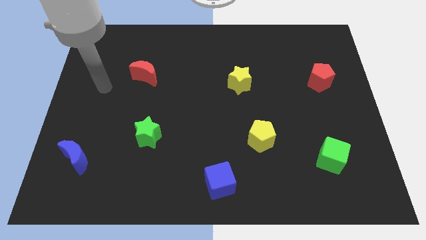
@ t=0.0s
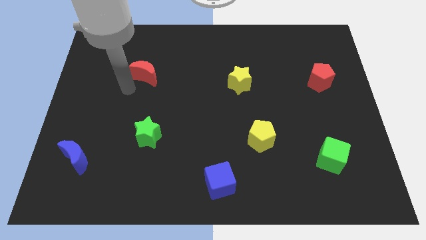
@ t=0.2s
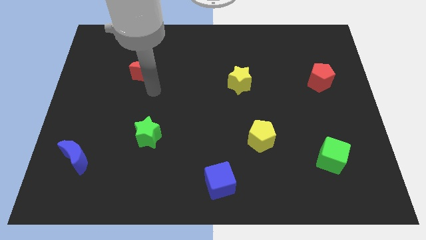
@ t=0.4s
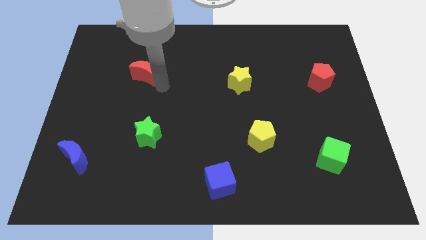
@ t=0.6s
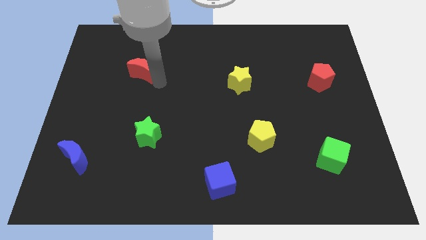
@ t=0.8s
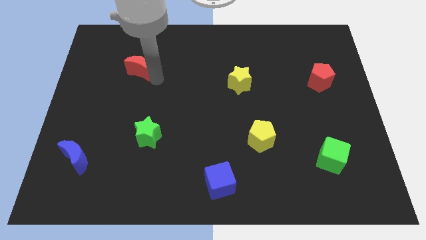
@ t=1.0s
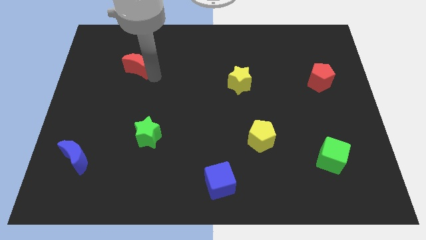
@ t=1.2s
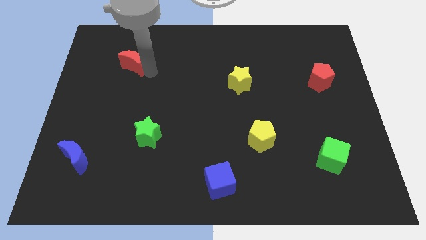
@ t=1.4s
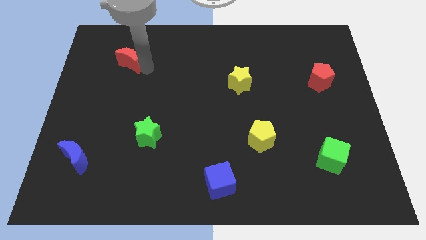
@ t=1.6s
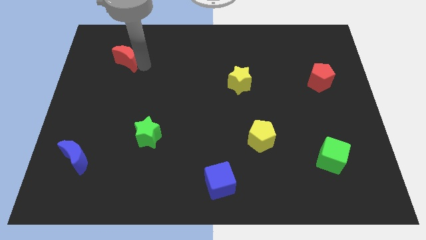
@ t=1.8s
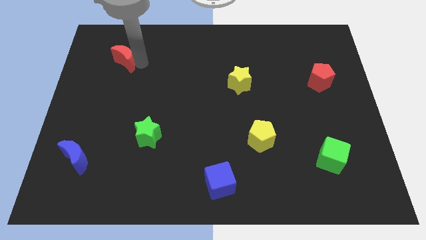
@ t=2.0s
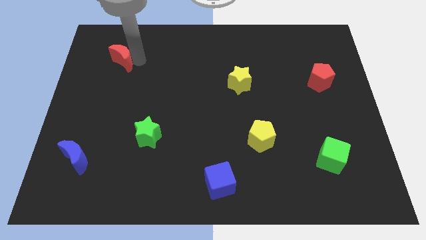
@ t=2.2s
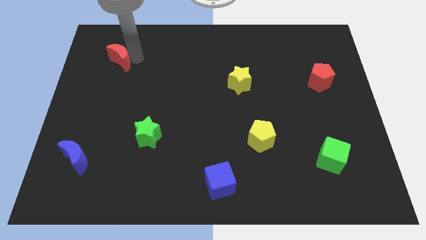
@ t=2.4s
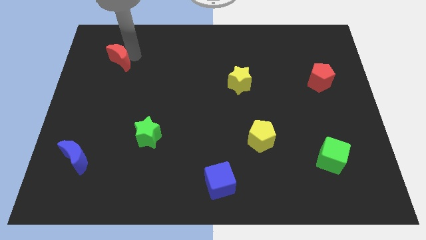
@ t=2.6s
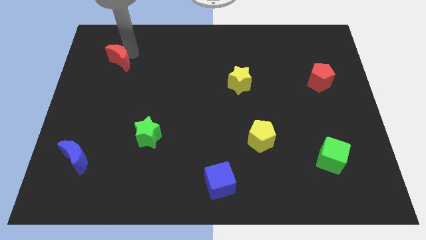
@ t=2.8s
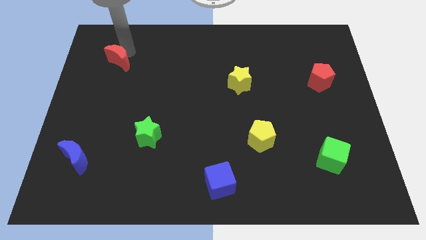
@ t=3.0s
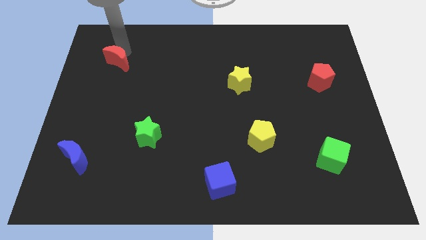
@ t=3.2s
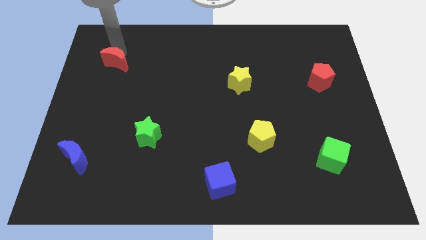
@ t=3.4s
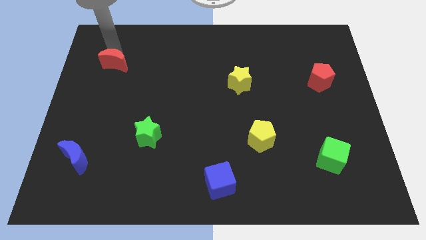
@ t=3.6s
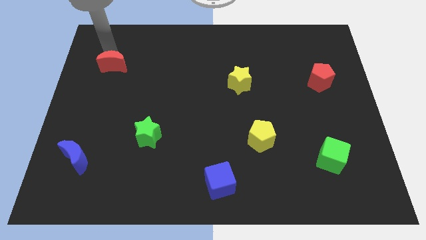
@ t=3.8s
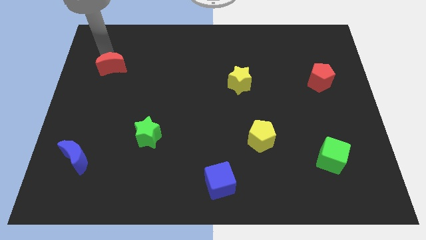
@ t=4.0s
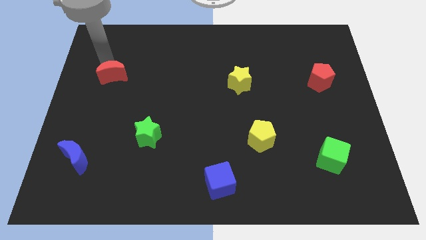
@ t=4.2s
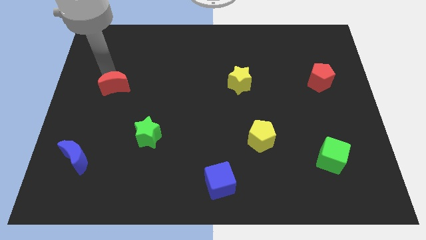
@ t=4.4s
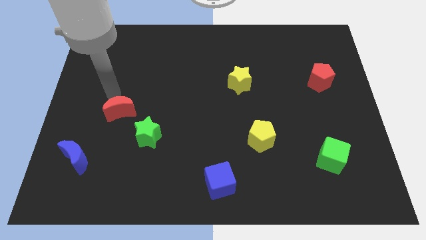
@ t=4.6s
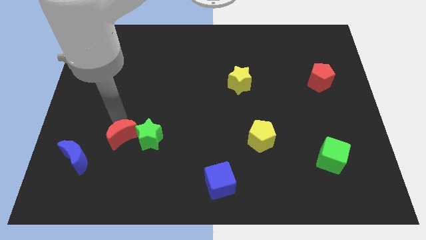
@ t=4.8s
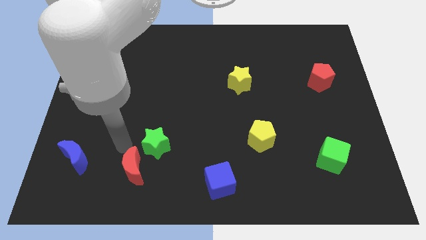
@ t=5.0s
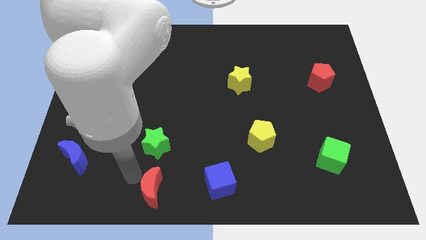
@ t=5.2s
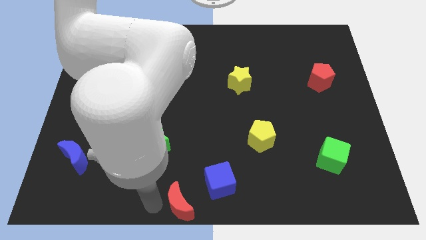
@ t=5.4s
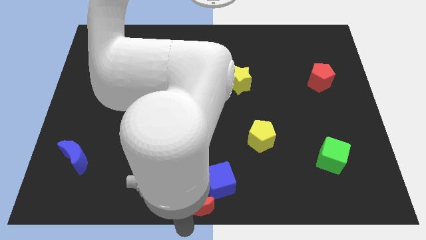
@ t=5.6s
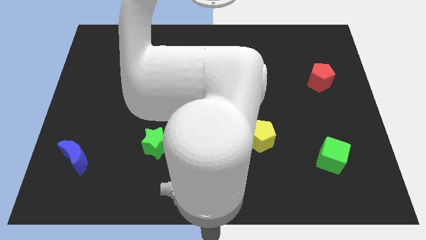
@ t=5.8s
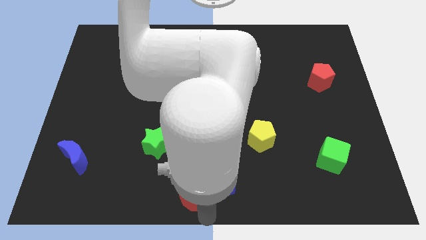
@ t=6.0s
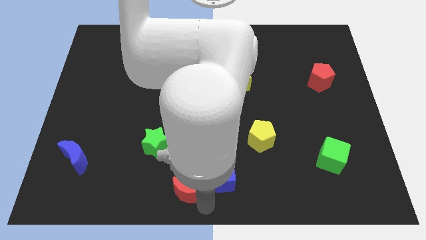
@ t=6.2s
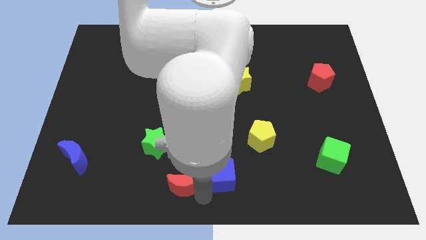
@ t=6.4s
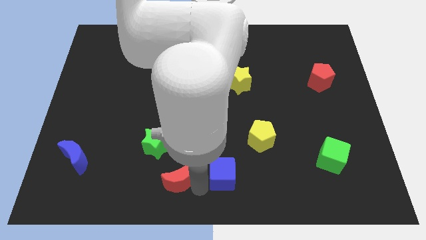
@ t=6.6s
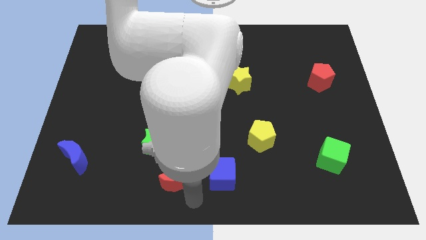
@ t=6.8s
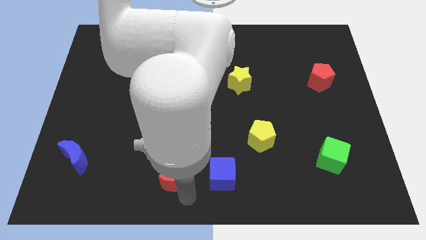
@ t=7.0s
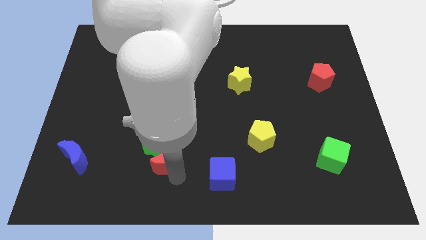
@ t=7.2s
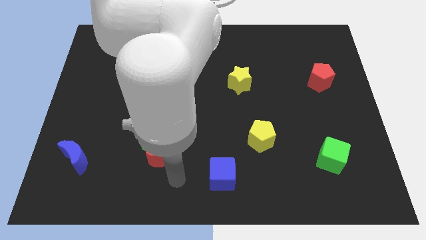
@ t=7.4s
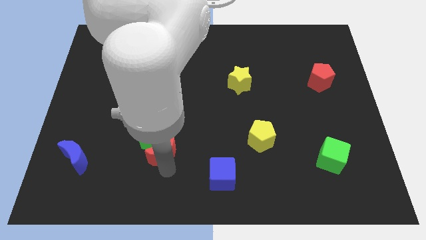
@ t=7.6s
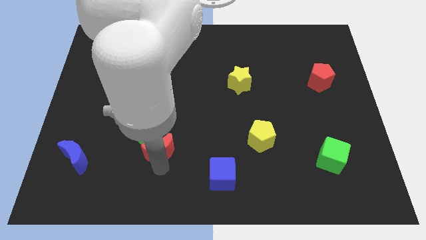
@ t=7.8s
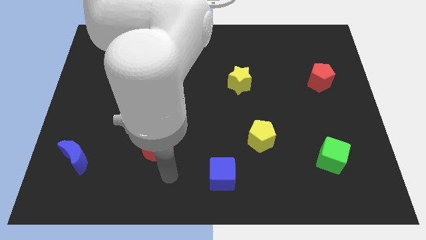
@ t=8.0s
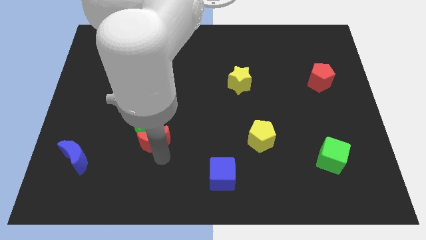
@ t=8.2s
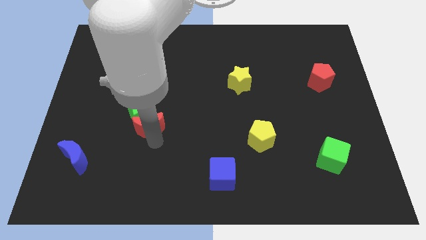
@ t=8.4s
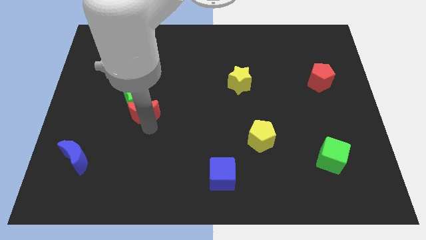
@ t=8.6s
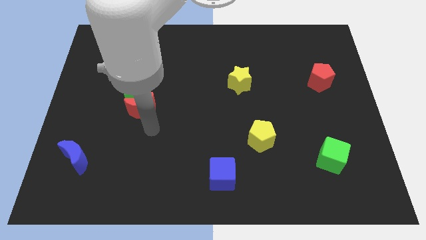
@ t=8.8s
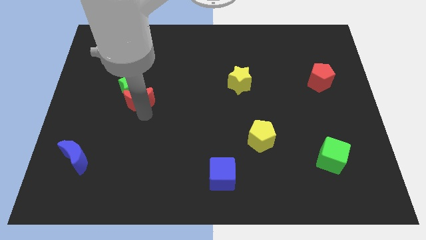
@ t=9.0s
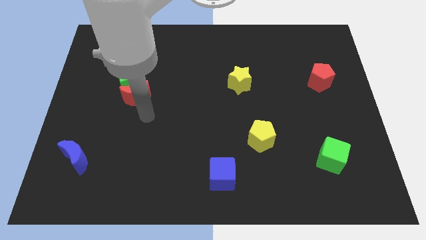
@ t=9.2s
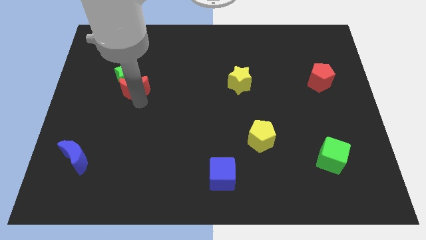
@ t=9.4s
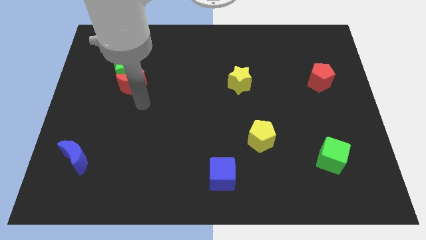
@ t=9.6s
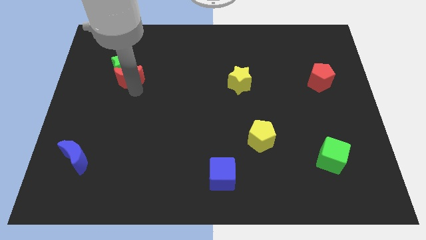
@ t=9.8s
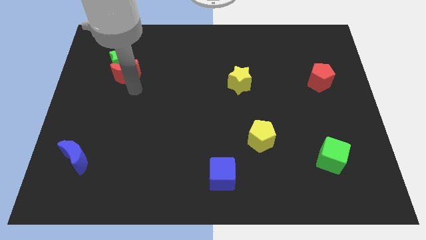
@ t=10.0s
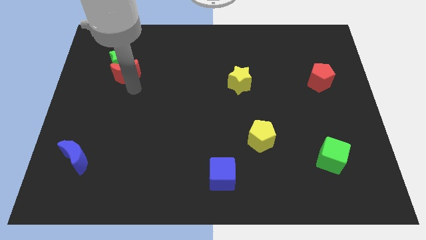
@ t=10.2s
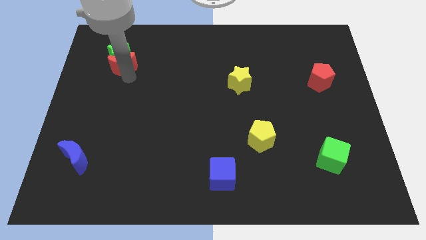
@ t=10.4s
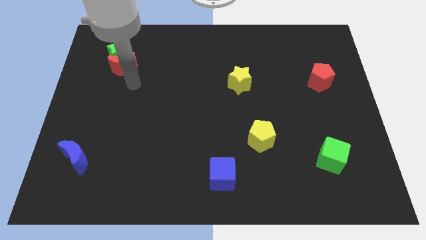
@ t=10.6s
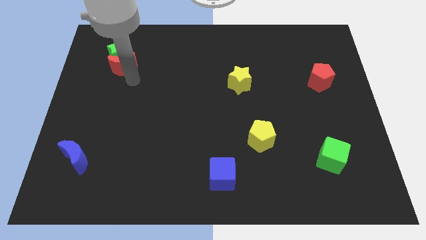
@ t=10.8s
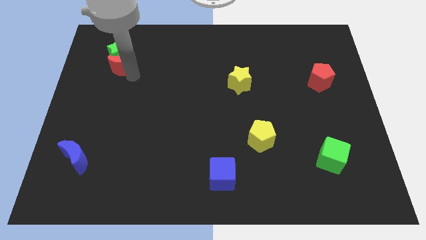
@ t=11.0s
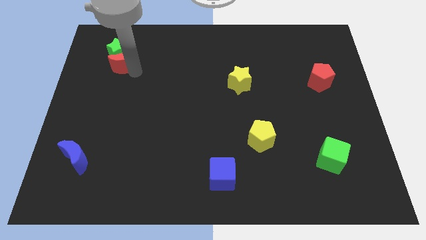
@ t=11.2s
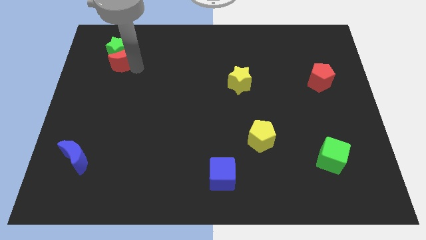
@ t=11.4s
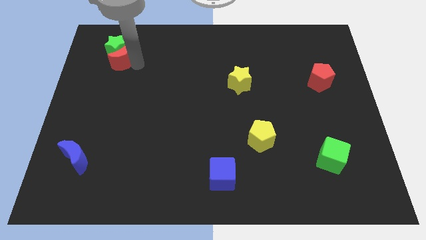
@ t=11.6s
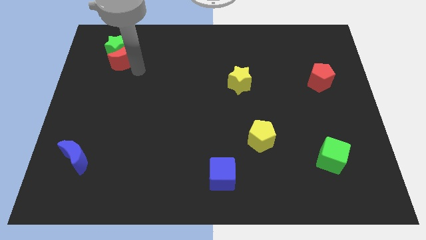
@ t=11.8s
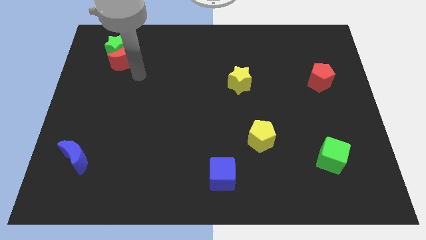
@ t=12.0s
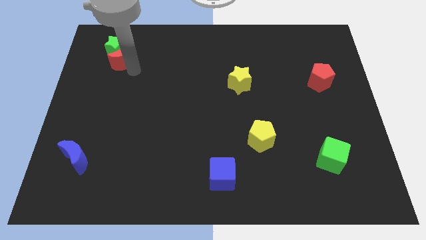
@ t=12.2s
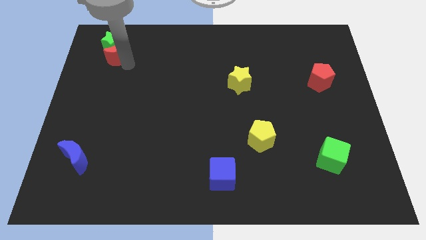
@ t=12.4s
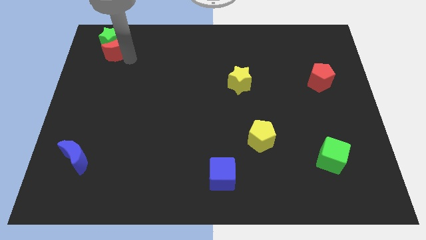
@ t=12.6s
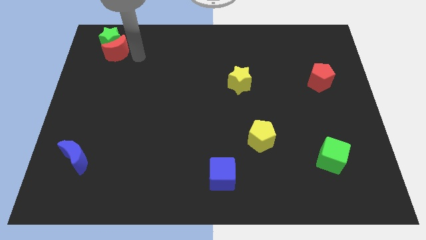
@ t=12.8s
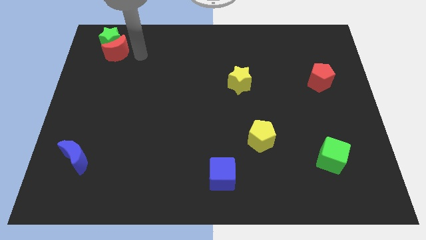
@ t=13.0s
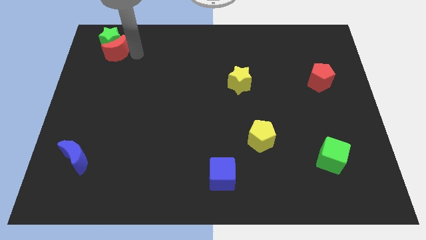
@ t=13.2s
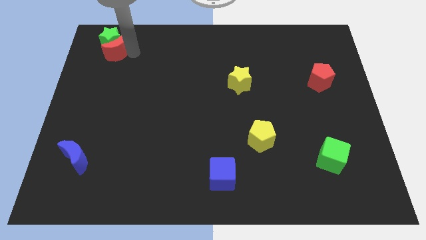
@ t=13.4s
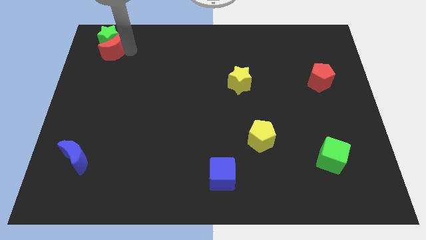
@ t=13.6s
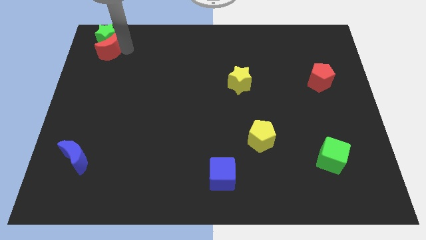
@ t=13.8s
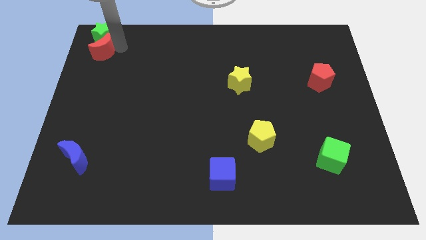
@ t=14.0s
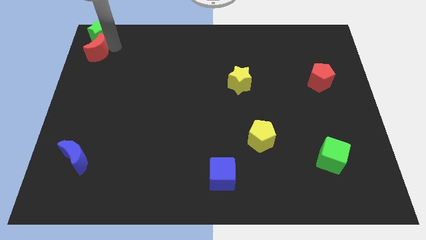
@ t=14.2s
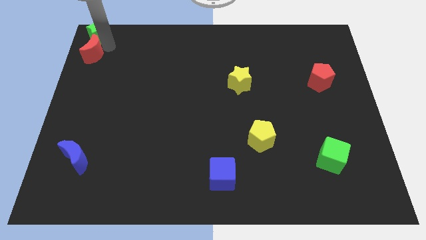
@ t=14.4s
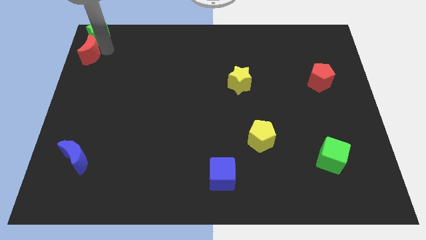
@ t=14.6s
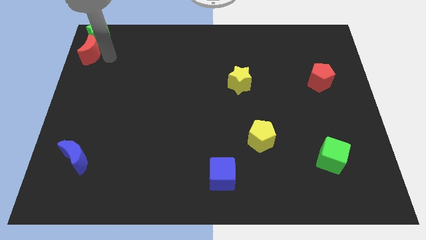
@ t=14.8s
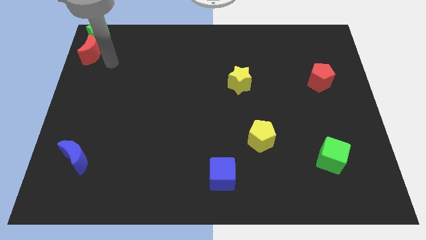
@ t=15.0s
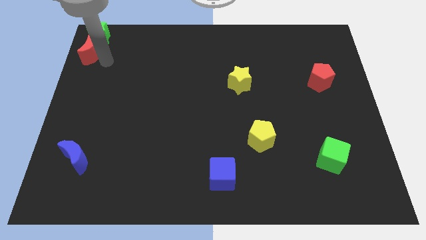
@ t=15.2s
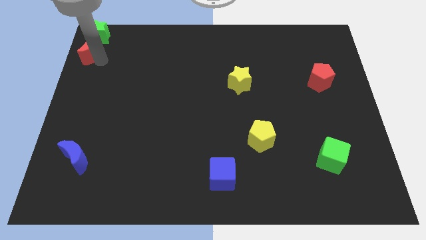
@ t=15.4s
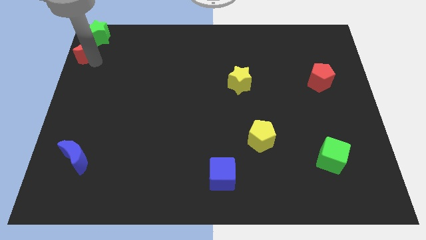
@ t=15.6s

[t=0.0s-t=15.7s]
slide the red moon to the top left
